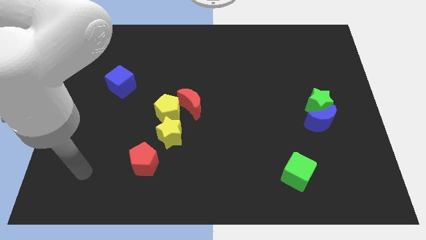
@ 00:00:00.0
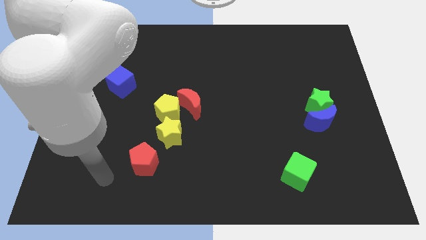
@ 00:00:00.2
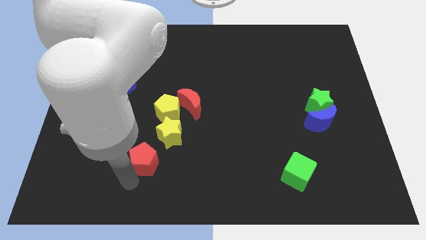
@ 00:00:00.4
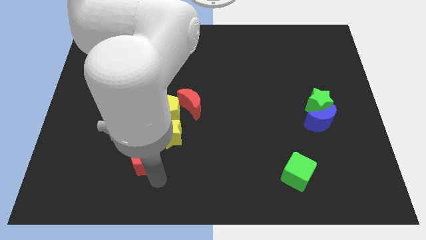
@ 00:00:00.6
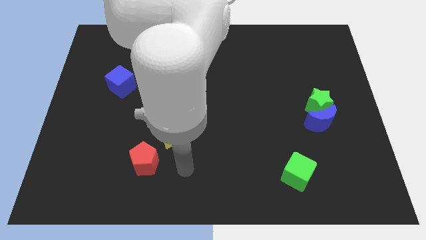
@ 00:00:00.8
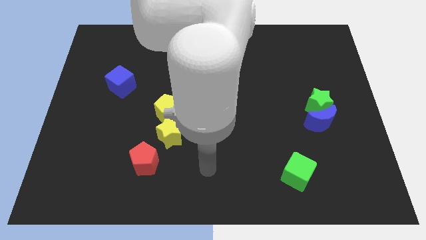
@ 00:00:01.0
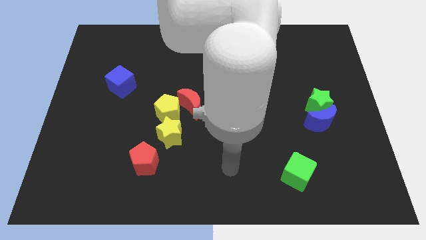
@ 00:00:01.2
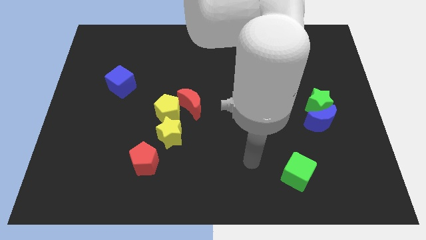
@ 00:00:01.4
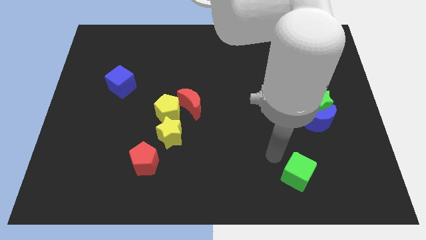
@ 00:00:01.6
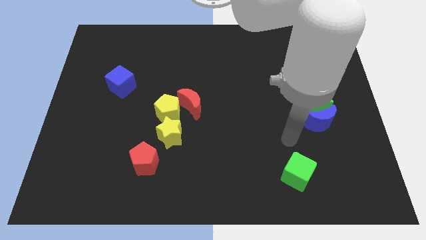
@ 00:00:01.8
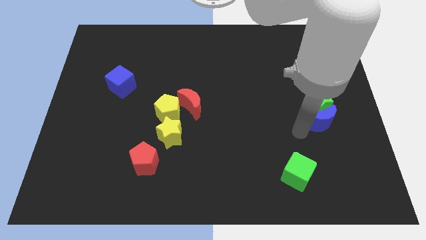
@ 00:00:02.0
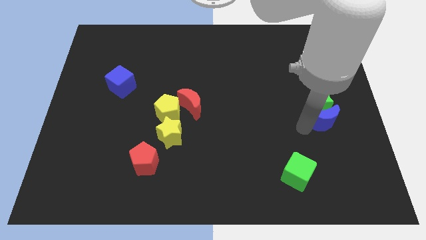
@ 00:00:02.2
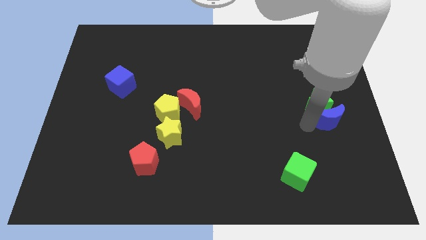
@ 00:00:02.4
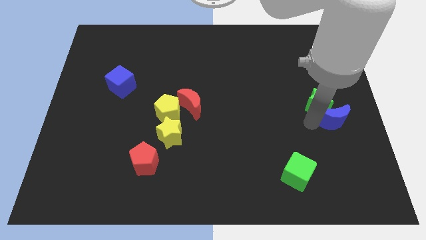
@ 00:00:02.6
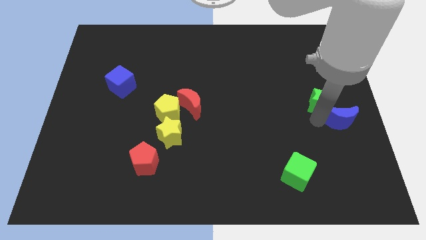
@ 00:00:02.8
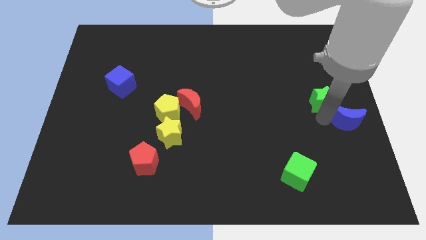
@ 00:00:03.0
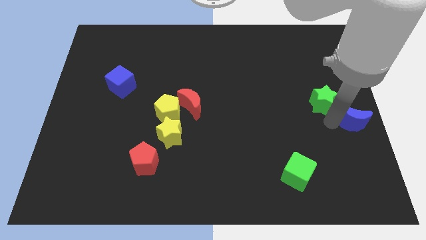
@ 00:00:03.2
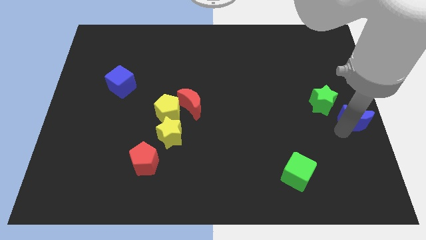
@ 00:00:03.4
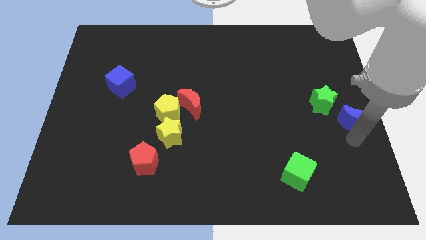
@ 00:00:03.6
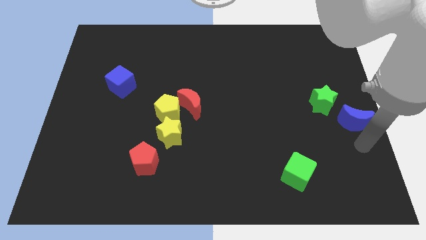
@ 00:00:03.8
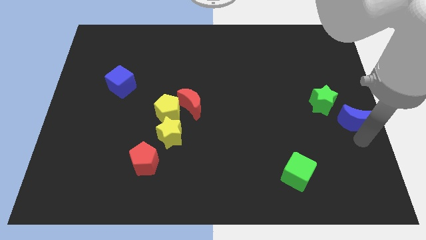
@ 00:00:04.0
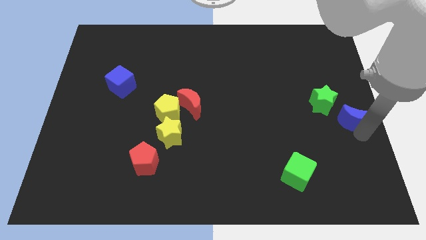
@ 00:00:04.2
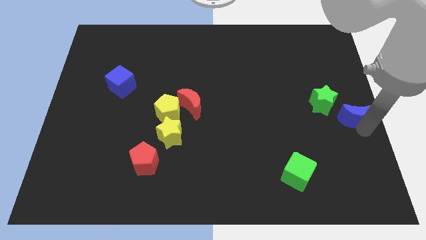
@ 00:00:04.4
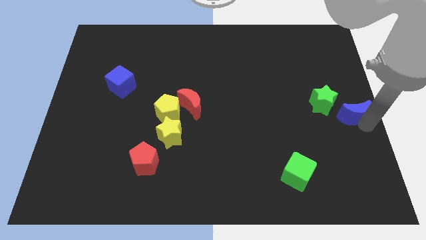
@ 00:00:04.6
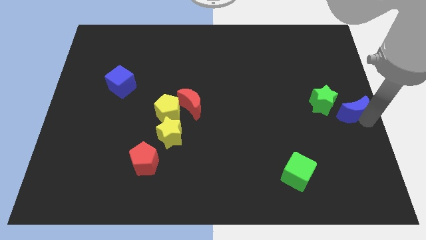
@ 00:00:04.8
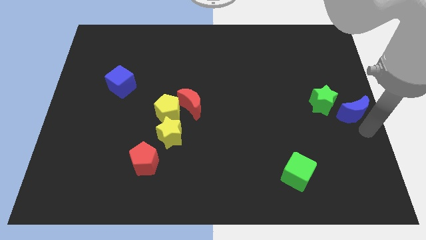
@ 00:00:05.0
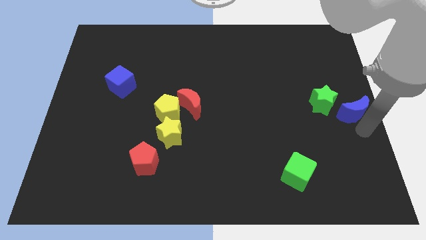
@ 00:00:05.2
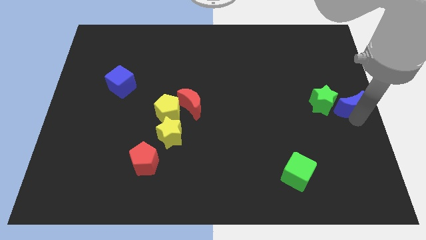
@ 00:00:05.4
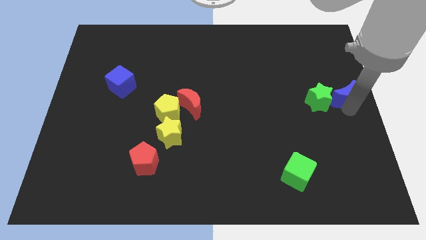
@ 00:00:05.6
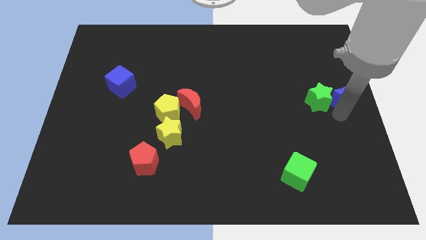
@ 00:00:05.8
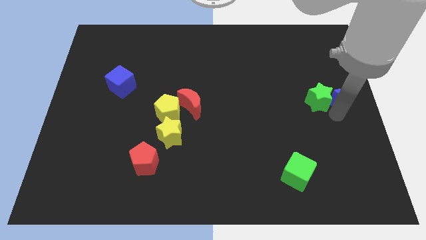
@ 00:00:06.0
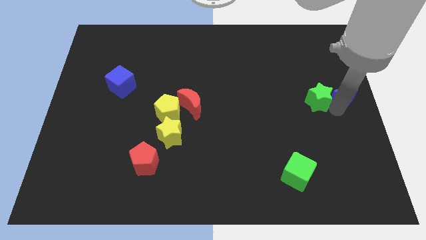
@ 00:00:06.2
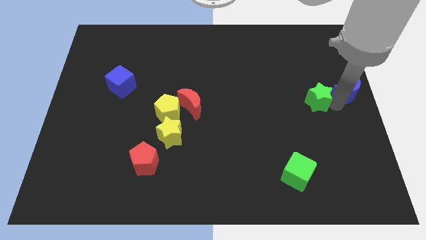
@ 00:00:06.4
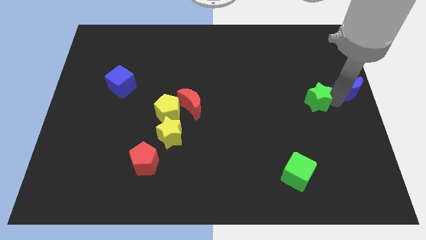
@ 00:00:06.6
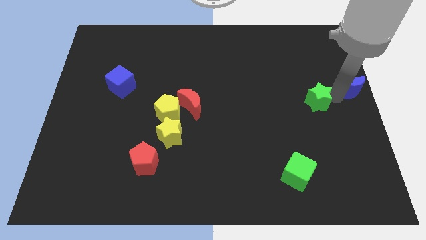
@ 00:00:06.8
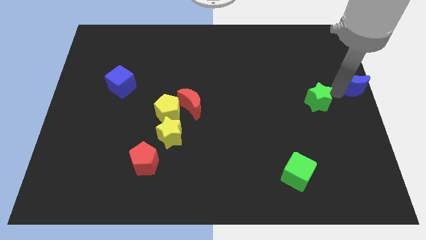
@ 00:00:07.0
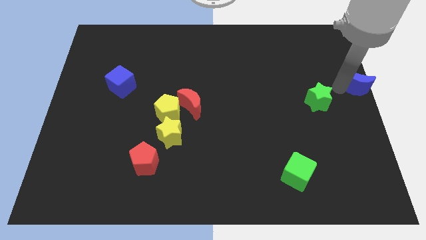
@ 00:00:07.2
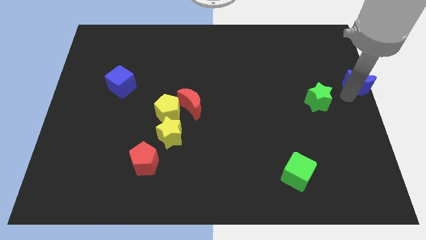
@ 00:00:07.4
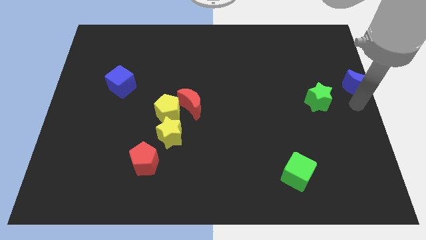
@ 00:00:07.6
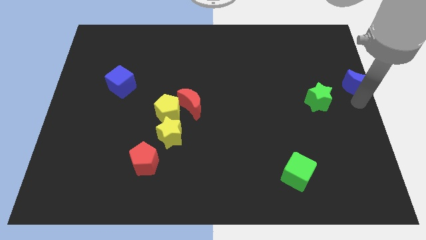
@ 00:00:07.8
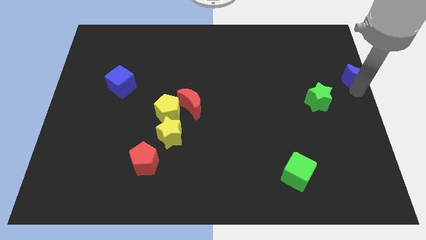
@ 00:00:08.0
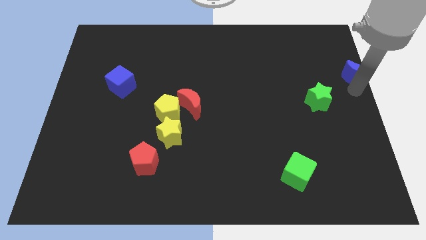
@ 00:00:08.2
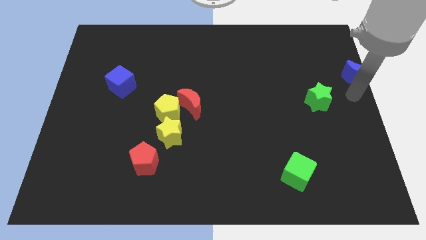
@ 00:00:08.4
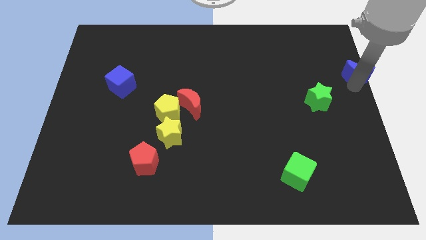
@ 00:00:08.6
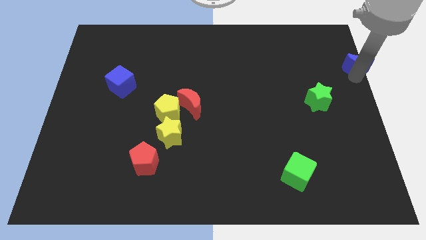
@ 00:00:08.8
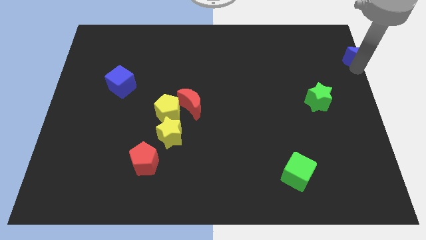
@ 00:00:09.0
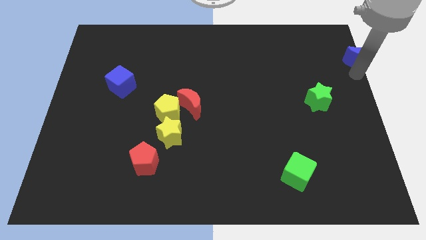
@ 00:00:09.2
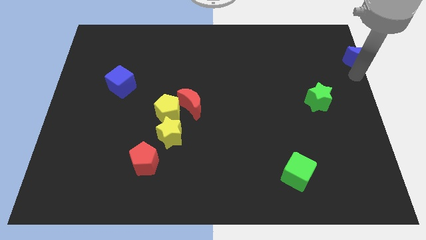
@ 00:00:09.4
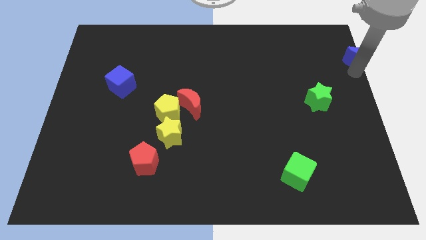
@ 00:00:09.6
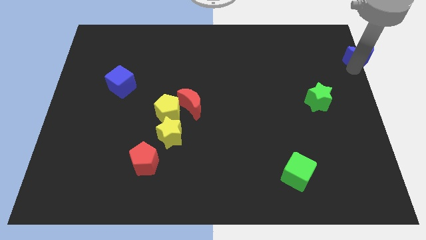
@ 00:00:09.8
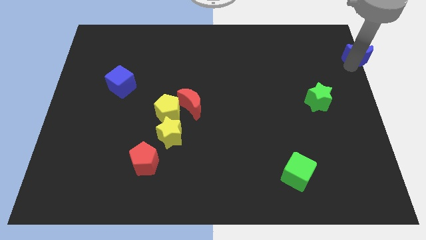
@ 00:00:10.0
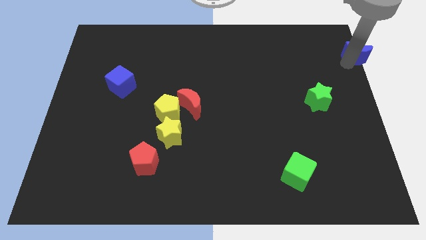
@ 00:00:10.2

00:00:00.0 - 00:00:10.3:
move the blue moon to the top right corner
